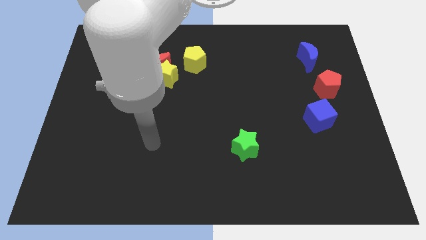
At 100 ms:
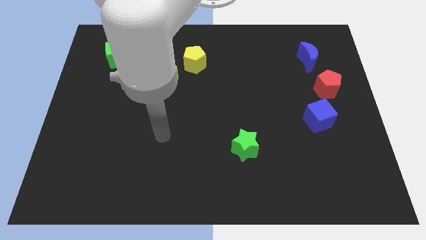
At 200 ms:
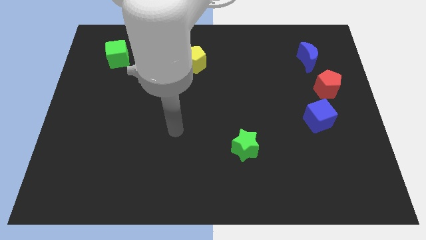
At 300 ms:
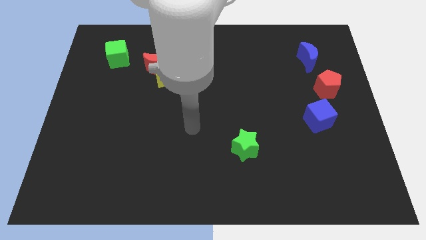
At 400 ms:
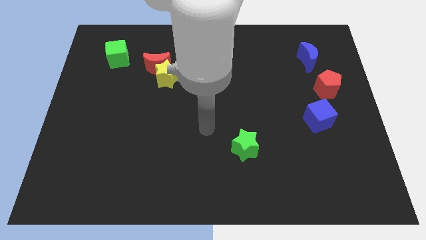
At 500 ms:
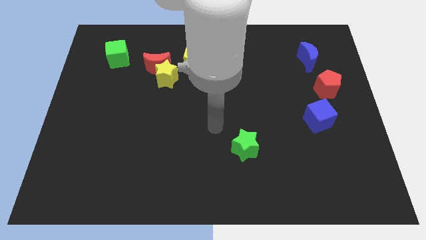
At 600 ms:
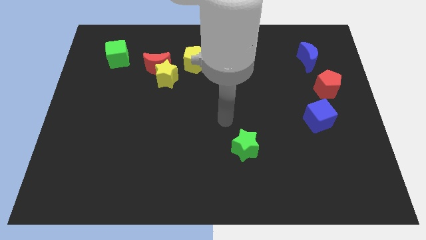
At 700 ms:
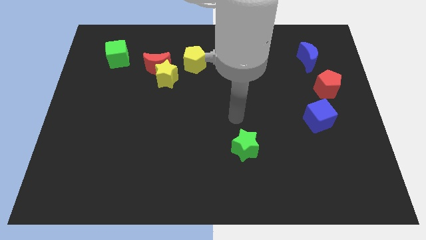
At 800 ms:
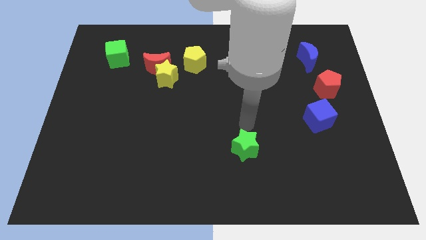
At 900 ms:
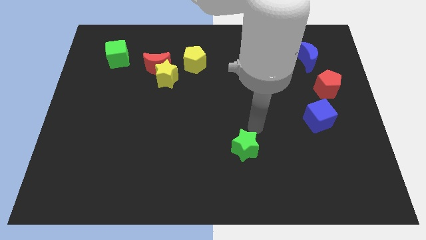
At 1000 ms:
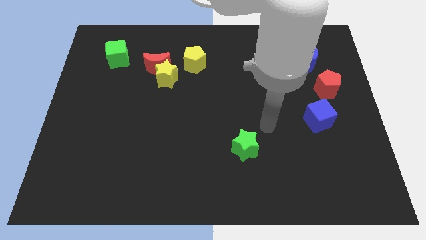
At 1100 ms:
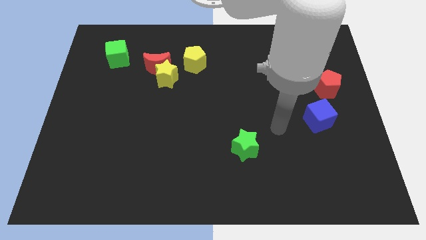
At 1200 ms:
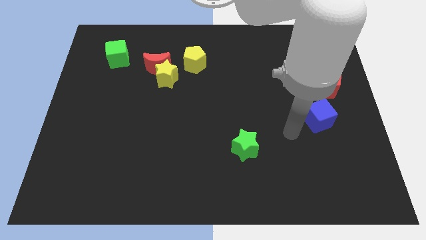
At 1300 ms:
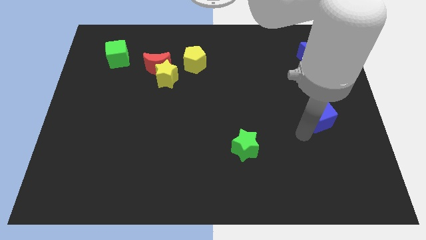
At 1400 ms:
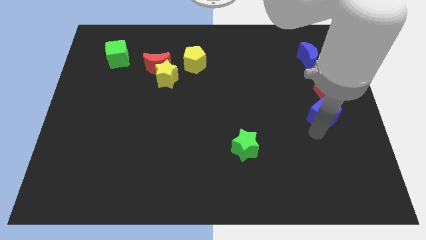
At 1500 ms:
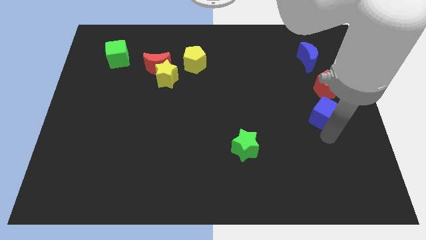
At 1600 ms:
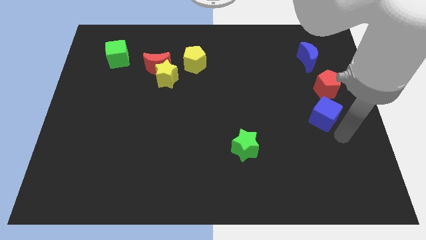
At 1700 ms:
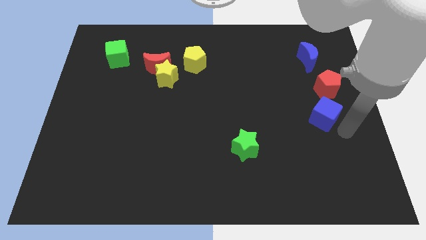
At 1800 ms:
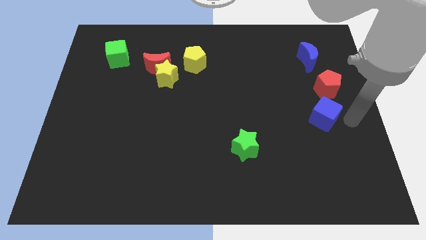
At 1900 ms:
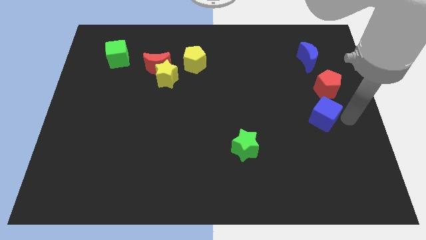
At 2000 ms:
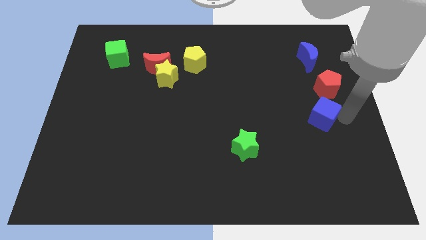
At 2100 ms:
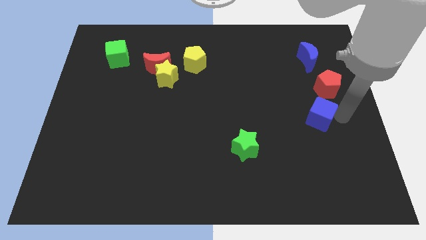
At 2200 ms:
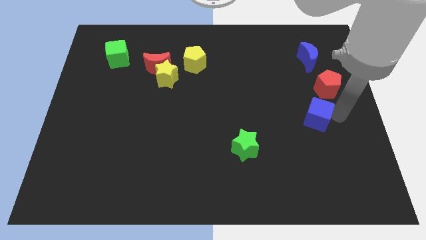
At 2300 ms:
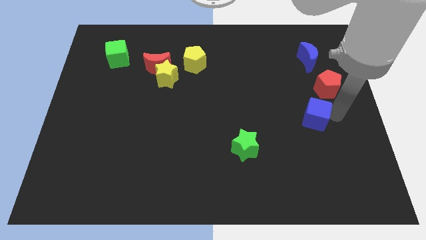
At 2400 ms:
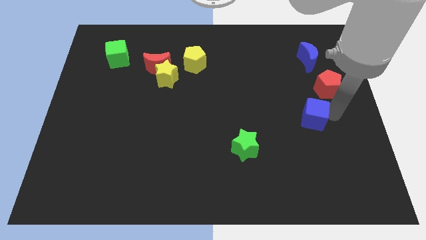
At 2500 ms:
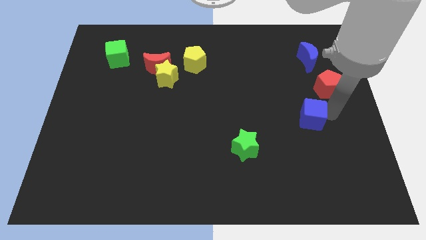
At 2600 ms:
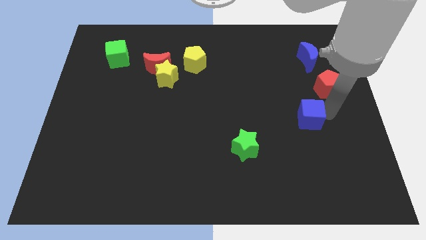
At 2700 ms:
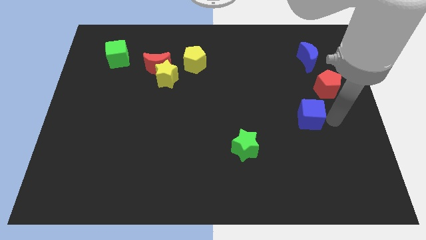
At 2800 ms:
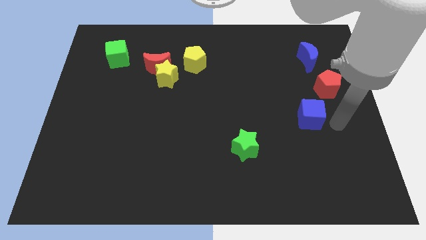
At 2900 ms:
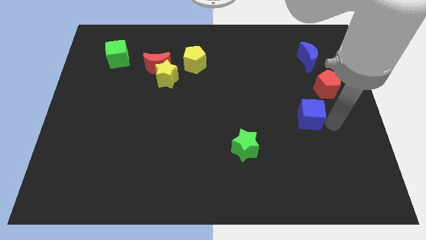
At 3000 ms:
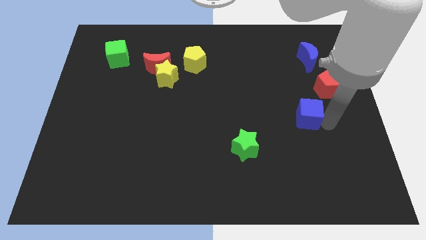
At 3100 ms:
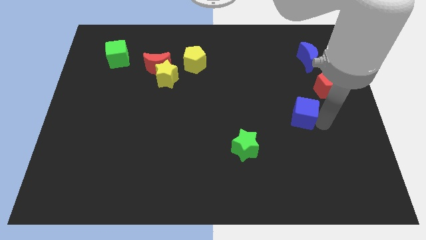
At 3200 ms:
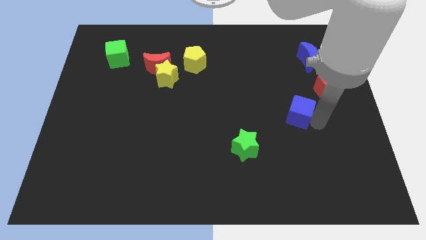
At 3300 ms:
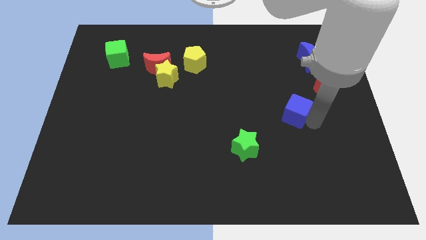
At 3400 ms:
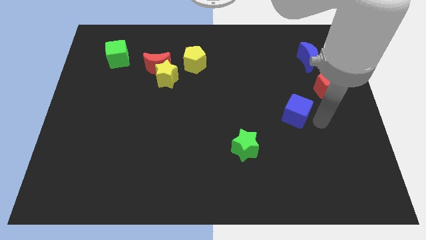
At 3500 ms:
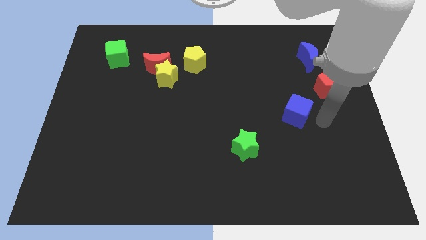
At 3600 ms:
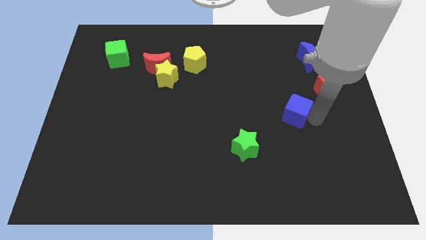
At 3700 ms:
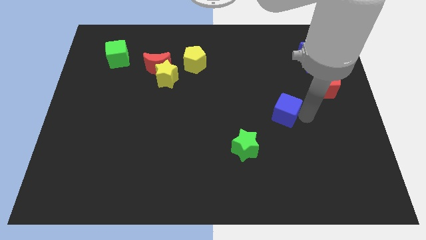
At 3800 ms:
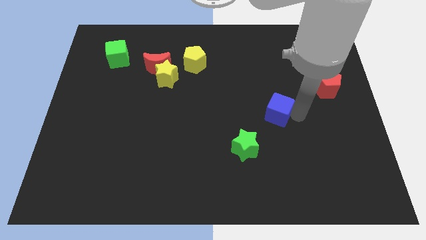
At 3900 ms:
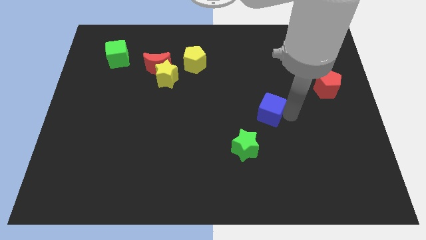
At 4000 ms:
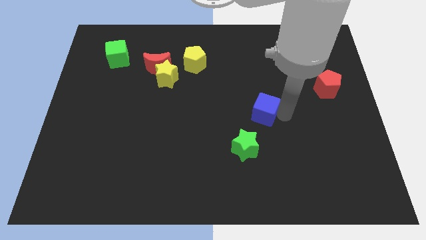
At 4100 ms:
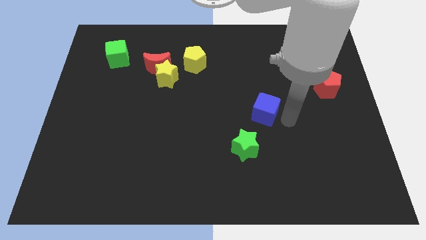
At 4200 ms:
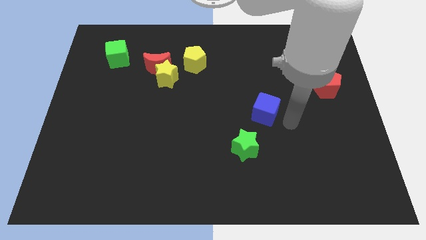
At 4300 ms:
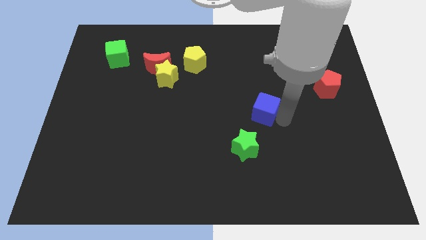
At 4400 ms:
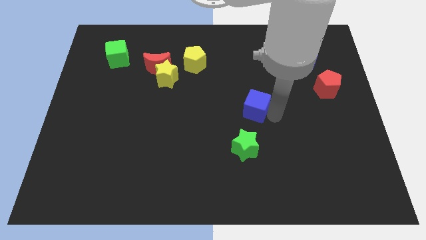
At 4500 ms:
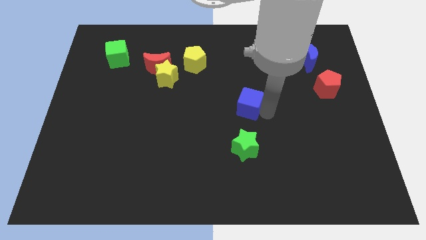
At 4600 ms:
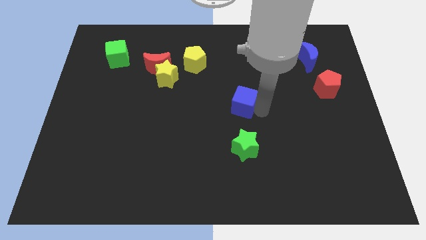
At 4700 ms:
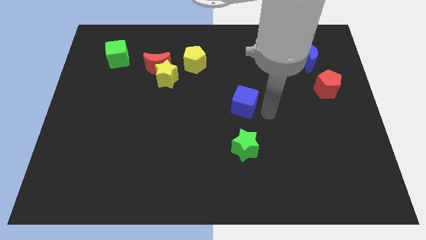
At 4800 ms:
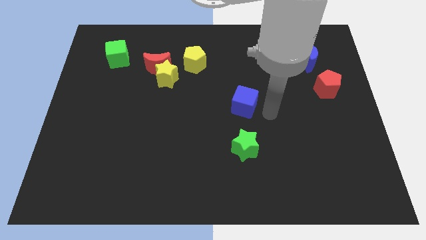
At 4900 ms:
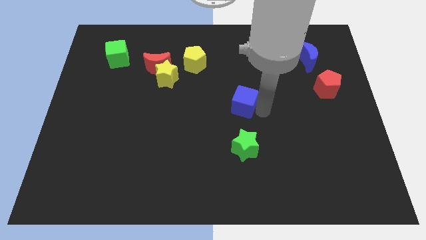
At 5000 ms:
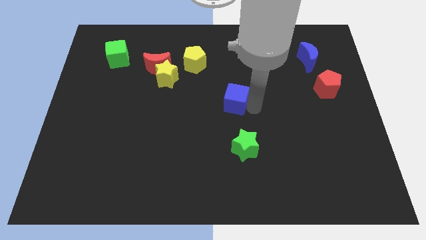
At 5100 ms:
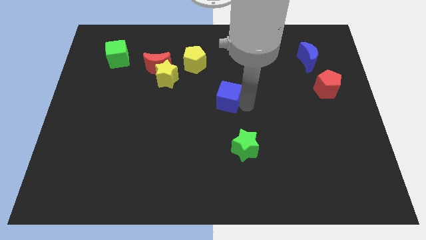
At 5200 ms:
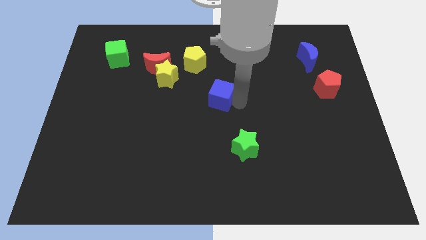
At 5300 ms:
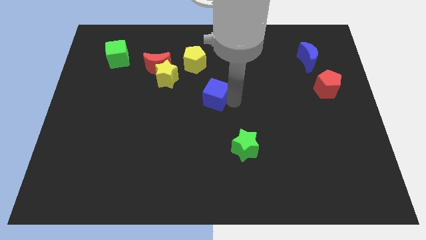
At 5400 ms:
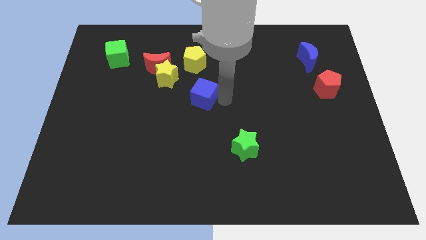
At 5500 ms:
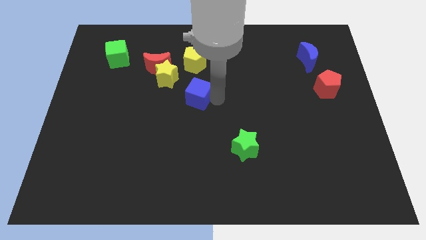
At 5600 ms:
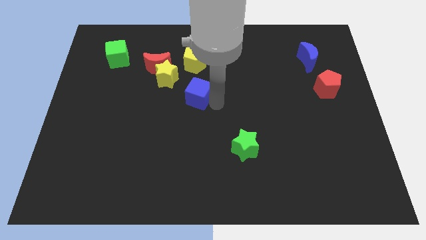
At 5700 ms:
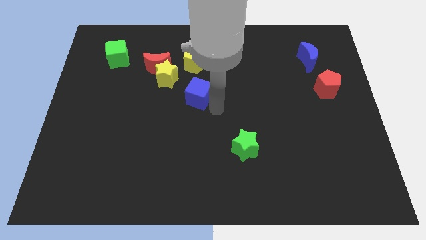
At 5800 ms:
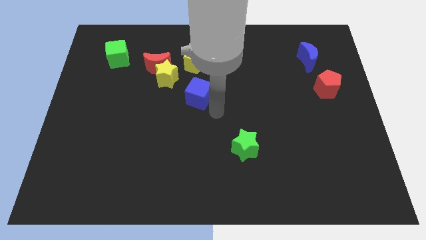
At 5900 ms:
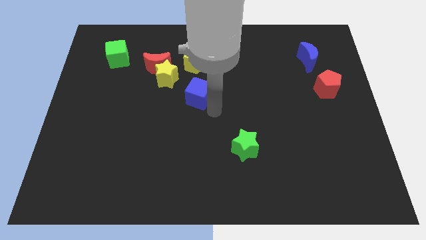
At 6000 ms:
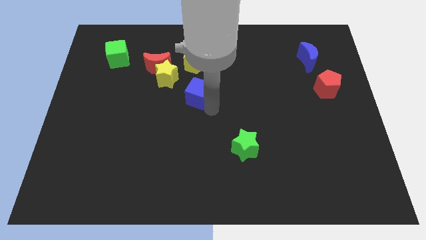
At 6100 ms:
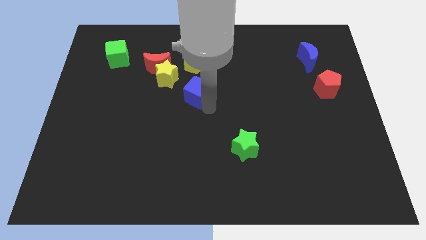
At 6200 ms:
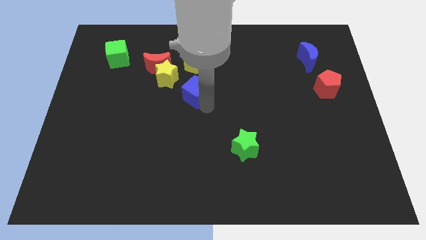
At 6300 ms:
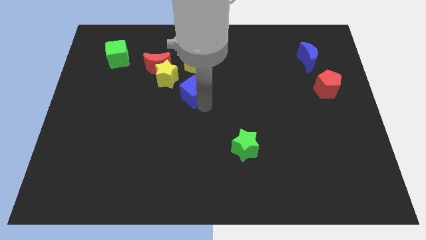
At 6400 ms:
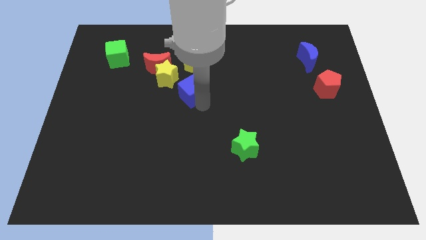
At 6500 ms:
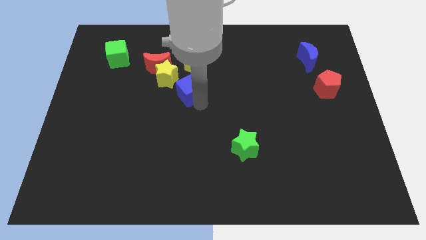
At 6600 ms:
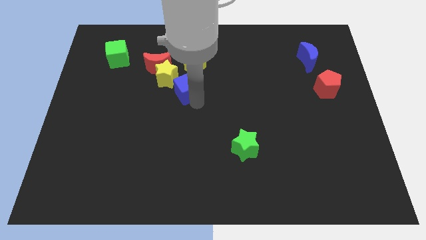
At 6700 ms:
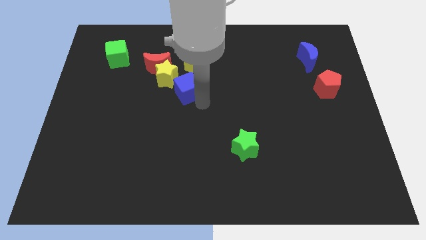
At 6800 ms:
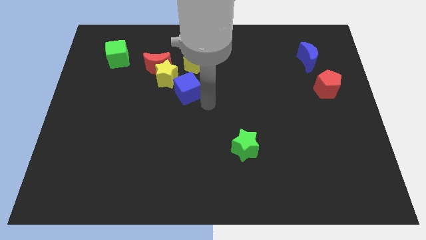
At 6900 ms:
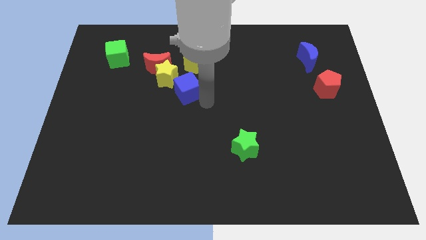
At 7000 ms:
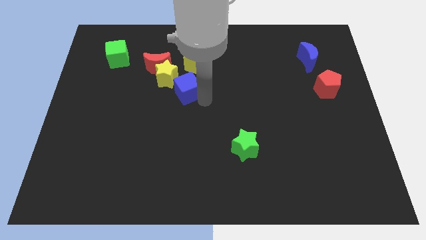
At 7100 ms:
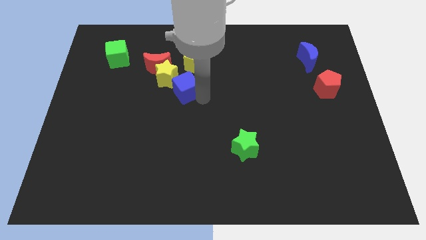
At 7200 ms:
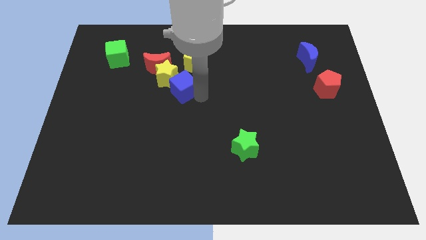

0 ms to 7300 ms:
move the blue cube towards the yellow star

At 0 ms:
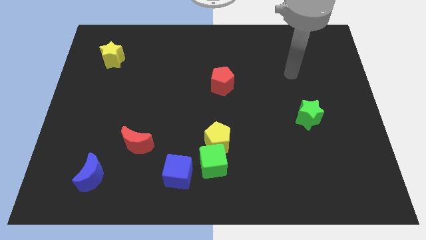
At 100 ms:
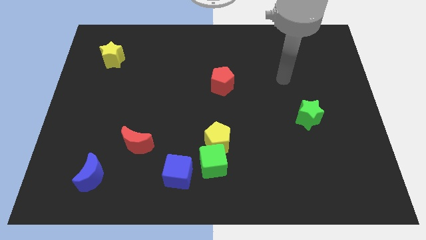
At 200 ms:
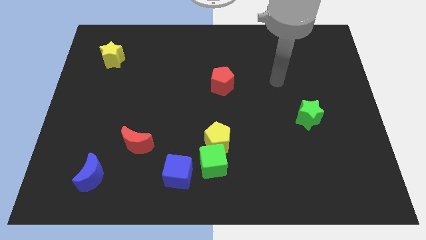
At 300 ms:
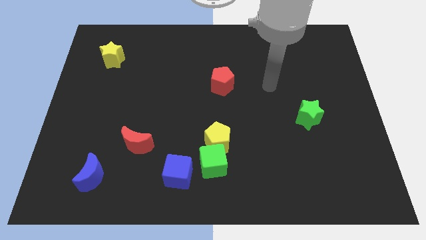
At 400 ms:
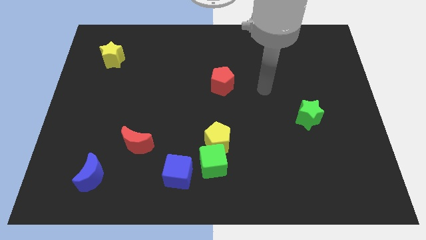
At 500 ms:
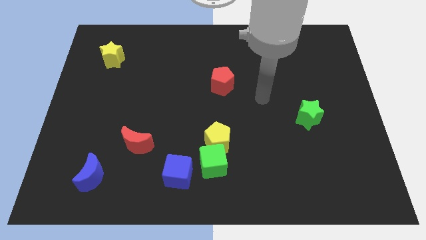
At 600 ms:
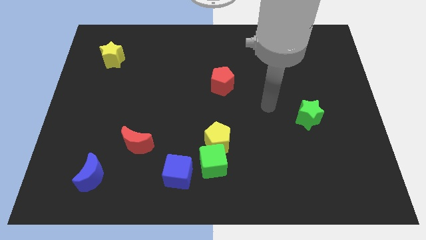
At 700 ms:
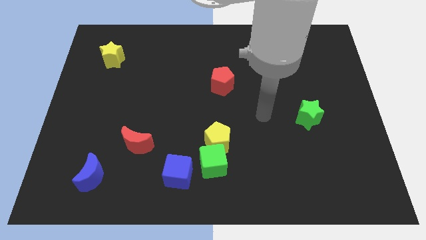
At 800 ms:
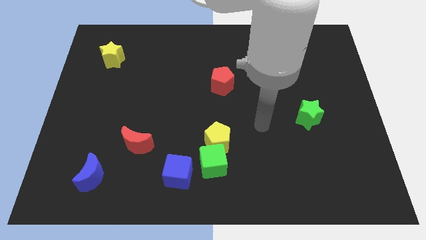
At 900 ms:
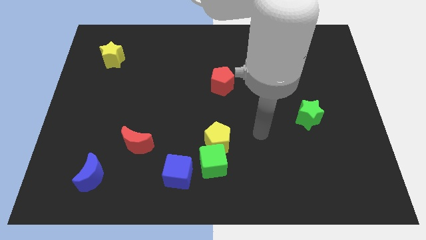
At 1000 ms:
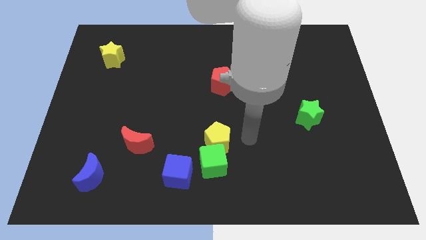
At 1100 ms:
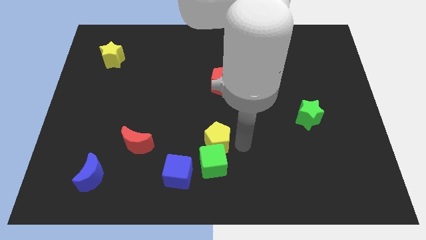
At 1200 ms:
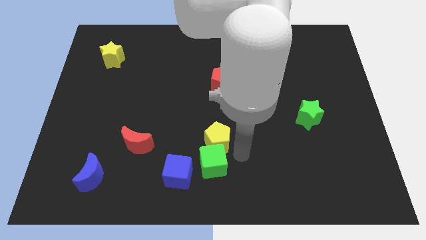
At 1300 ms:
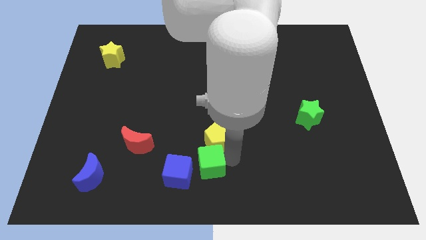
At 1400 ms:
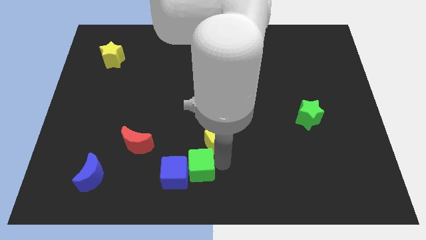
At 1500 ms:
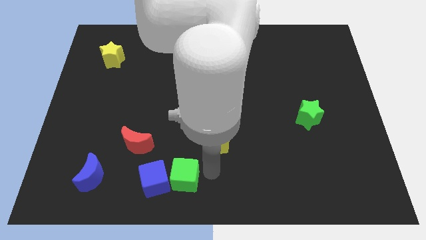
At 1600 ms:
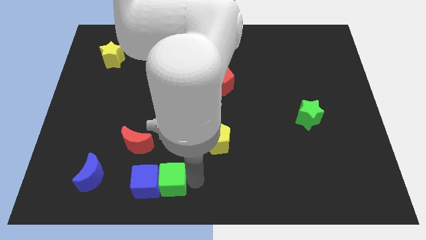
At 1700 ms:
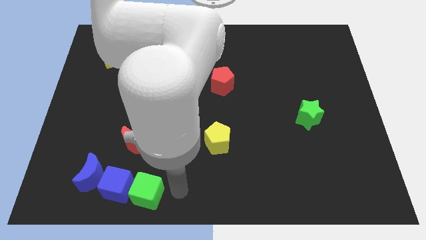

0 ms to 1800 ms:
push the blue cube close to the blue moon
